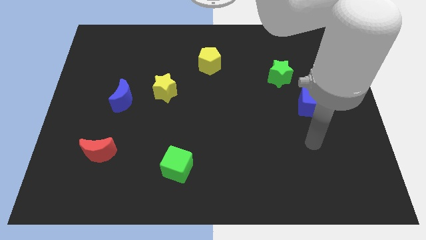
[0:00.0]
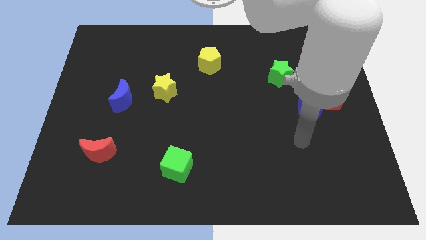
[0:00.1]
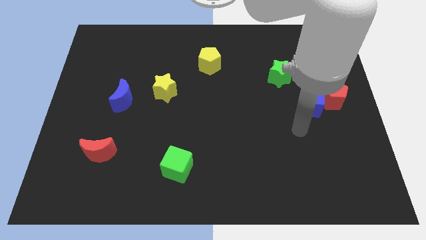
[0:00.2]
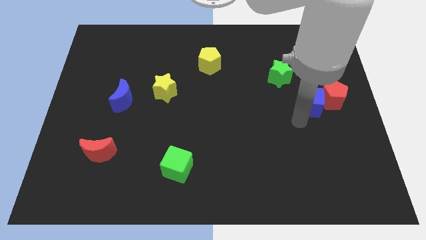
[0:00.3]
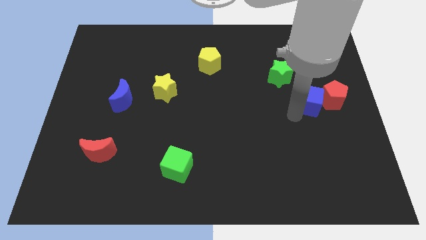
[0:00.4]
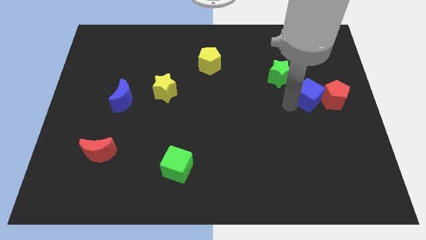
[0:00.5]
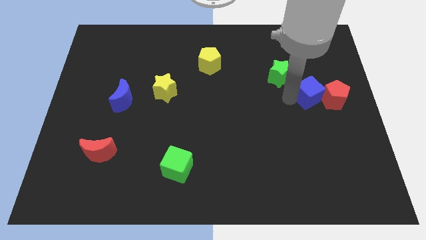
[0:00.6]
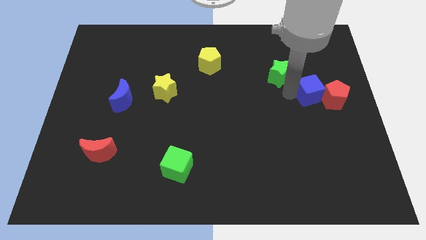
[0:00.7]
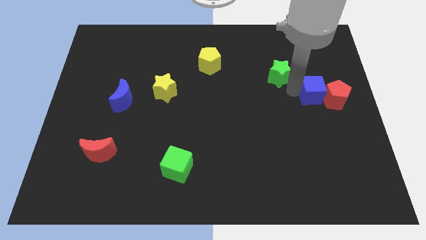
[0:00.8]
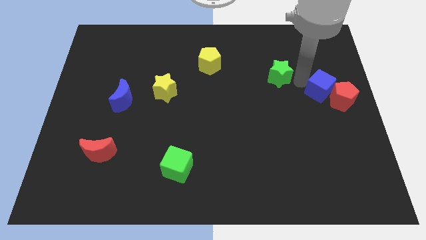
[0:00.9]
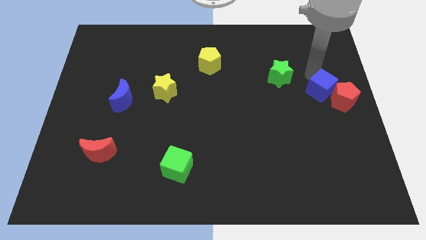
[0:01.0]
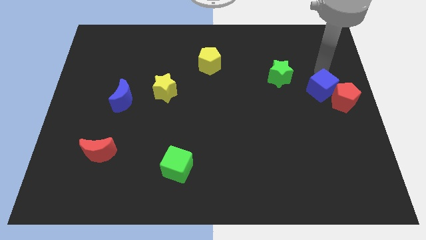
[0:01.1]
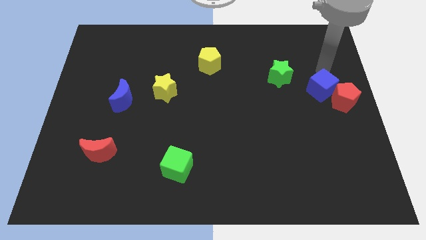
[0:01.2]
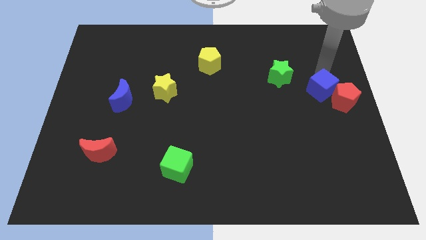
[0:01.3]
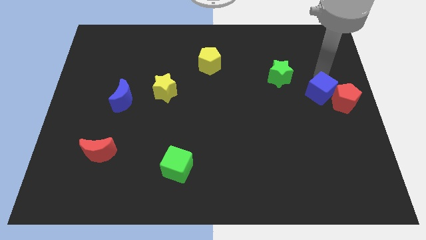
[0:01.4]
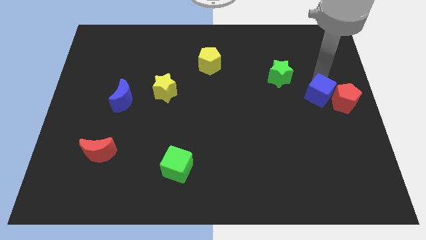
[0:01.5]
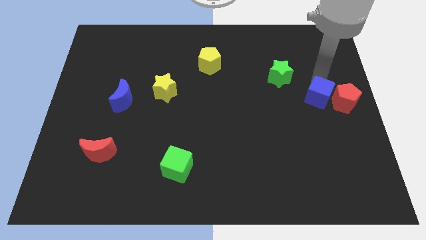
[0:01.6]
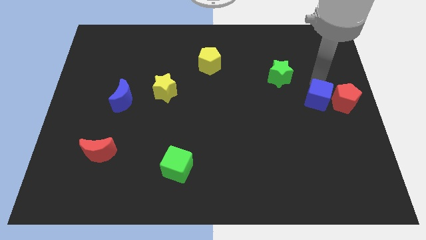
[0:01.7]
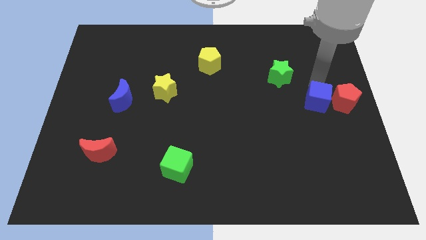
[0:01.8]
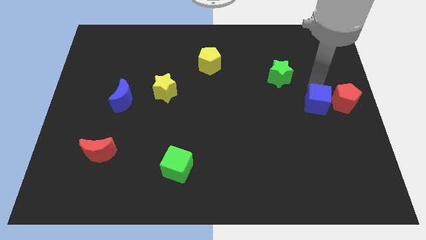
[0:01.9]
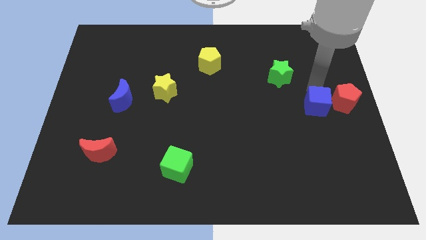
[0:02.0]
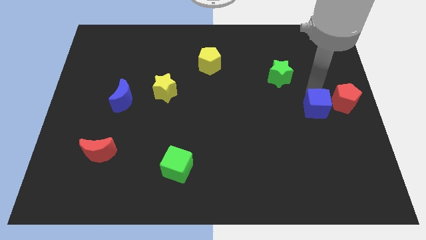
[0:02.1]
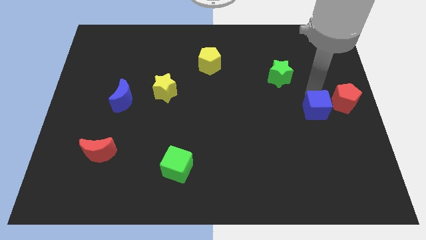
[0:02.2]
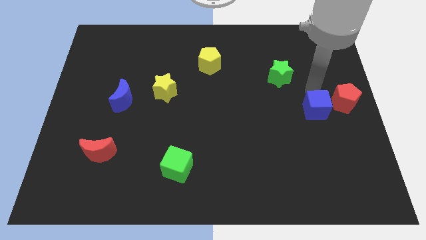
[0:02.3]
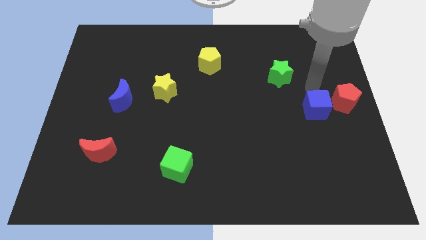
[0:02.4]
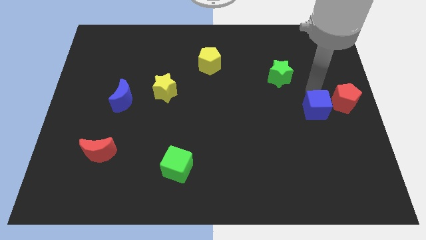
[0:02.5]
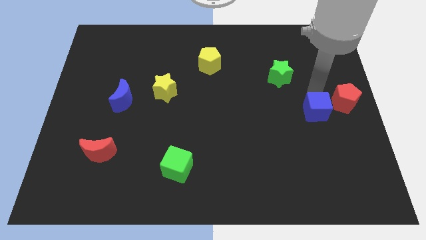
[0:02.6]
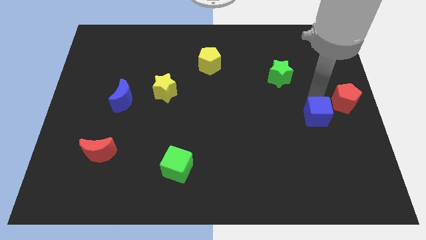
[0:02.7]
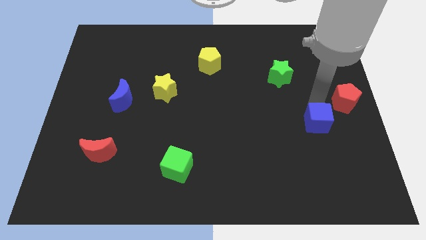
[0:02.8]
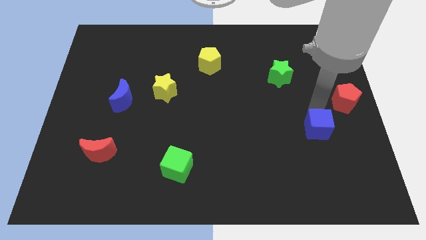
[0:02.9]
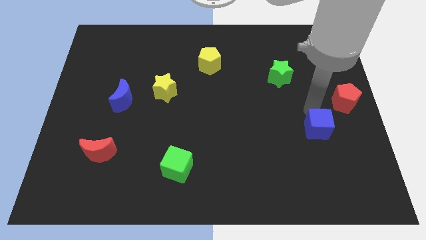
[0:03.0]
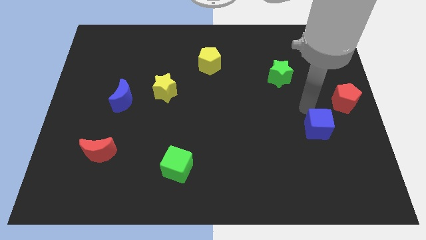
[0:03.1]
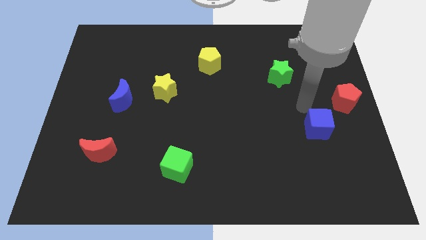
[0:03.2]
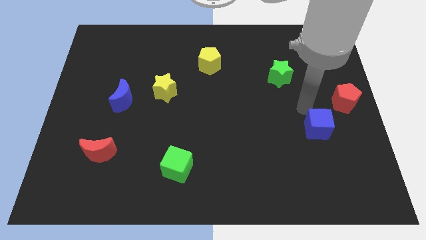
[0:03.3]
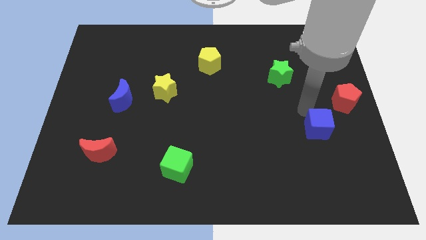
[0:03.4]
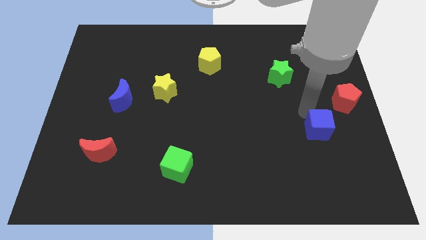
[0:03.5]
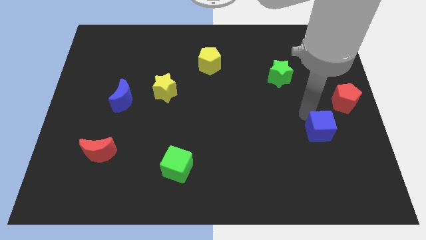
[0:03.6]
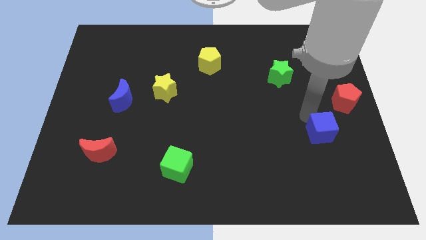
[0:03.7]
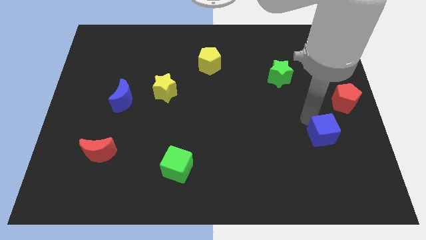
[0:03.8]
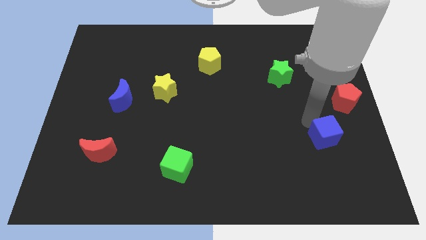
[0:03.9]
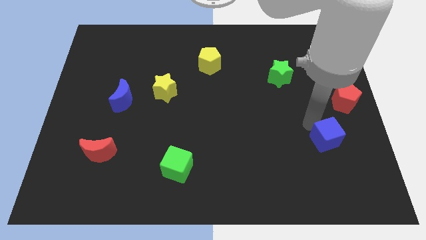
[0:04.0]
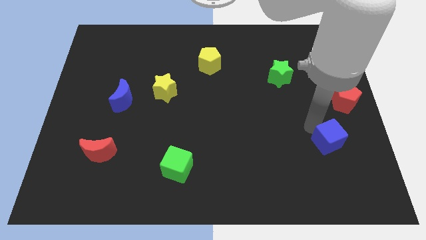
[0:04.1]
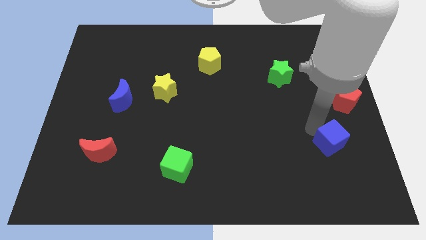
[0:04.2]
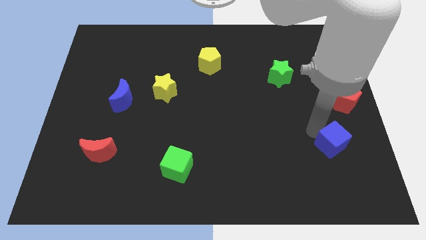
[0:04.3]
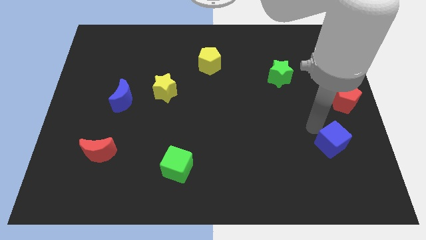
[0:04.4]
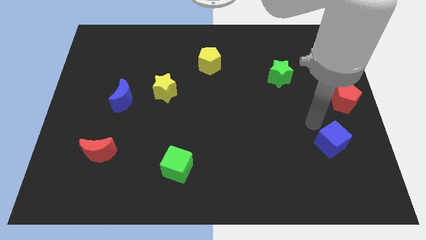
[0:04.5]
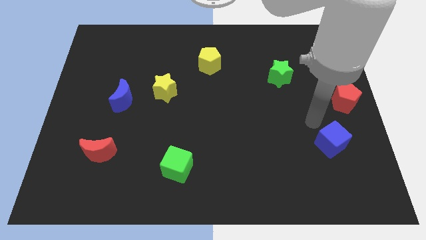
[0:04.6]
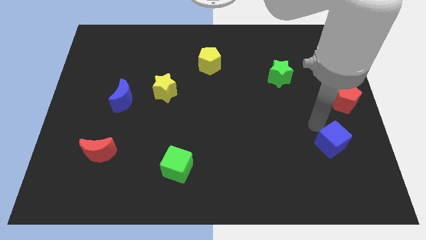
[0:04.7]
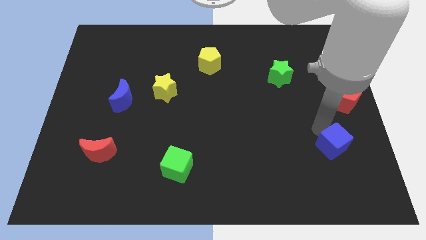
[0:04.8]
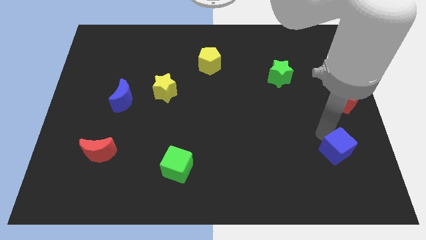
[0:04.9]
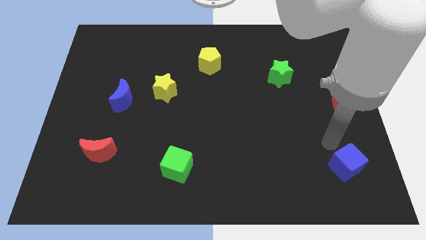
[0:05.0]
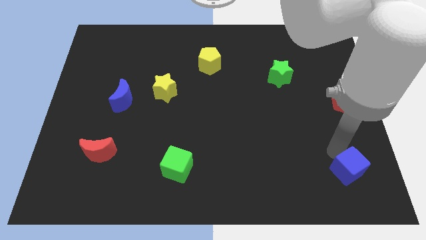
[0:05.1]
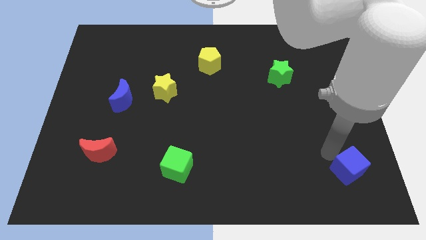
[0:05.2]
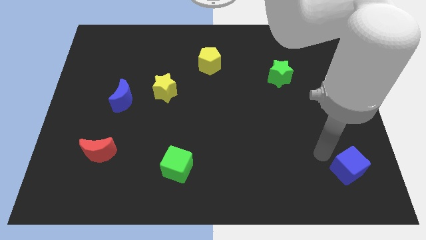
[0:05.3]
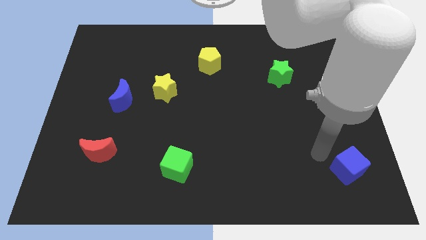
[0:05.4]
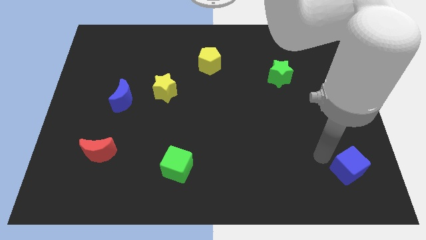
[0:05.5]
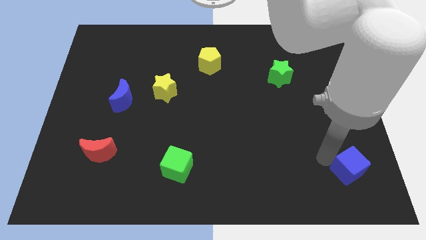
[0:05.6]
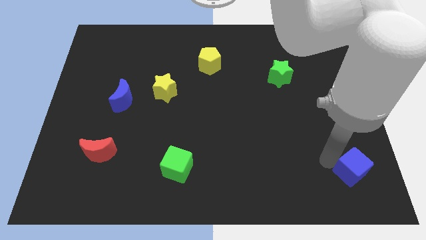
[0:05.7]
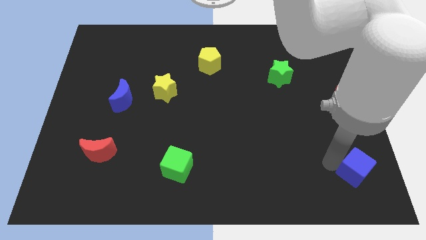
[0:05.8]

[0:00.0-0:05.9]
put the blue cube to the lower right corner

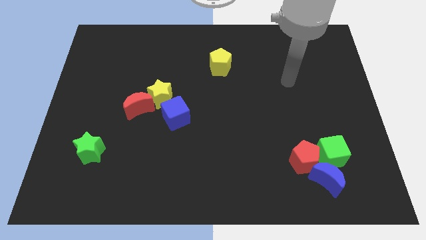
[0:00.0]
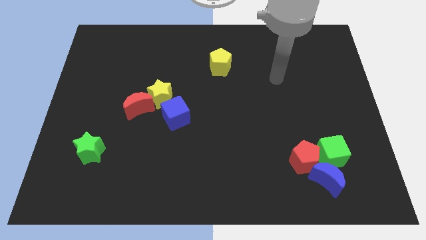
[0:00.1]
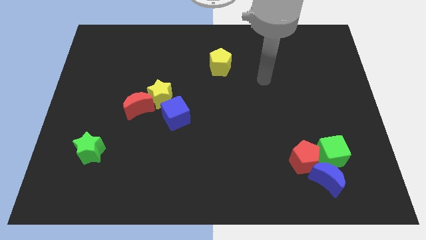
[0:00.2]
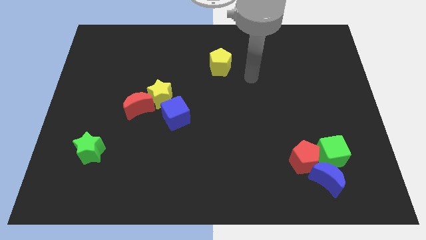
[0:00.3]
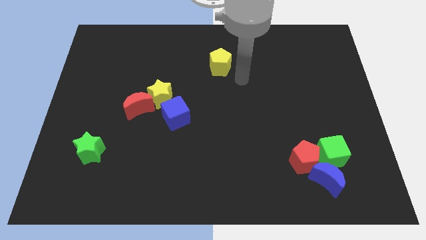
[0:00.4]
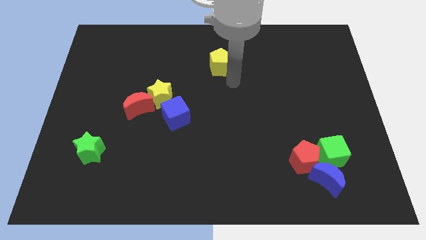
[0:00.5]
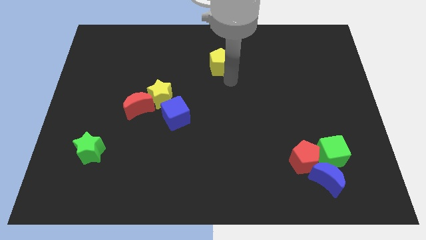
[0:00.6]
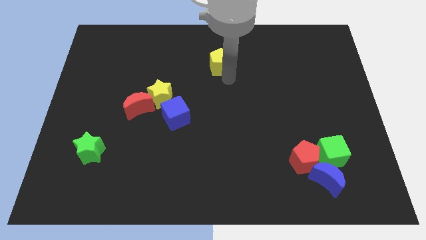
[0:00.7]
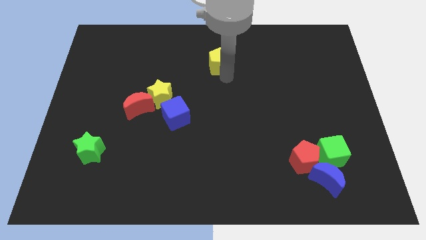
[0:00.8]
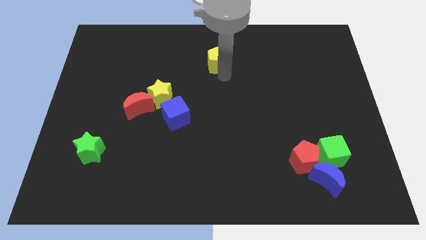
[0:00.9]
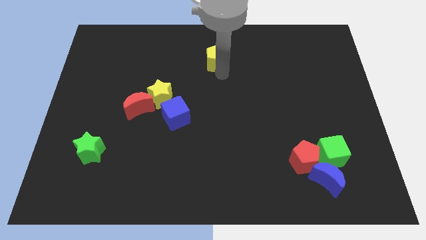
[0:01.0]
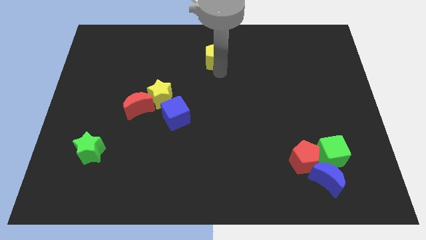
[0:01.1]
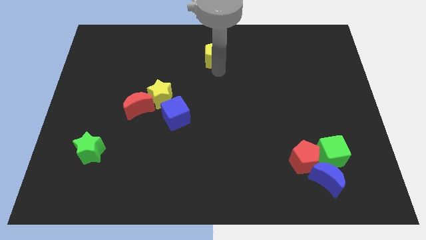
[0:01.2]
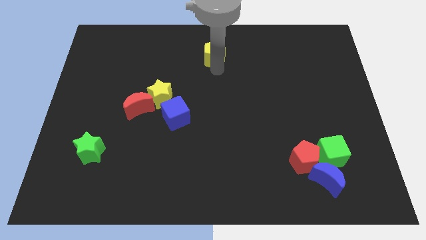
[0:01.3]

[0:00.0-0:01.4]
slide the yellow pentagon to the top side
